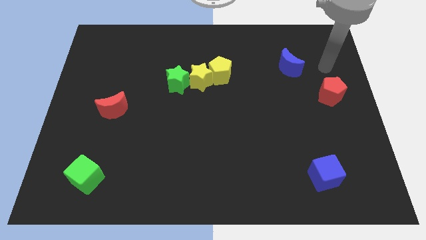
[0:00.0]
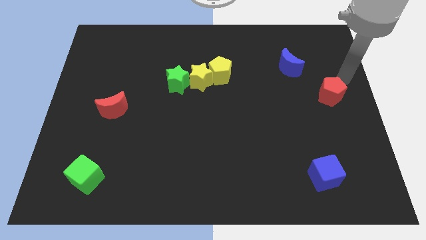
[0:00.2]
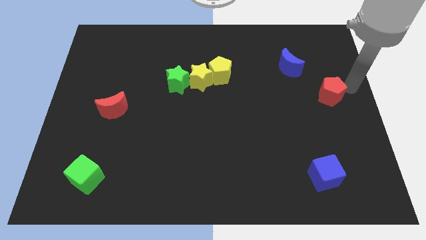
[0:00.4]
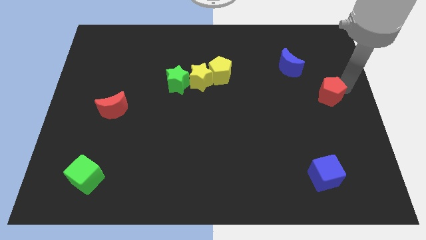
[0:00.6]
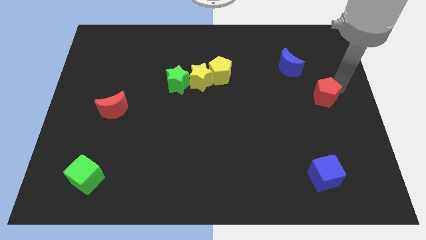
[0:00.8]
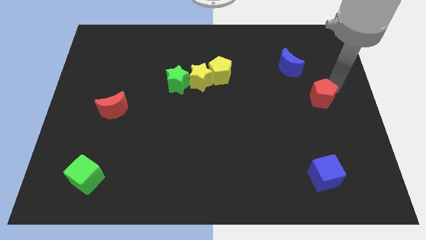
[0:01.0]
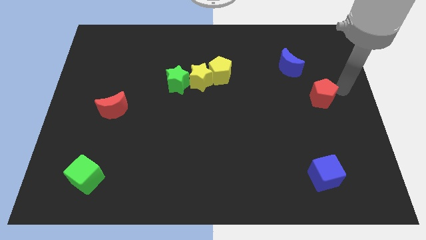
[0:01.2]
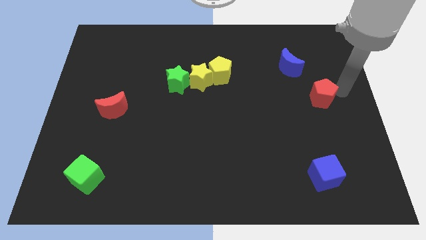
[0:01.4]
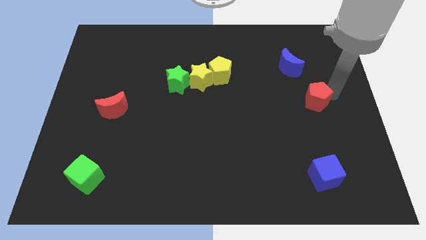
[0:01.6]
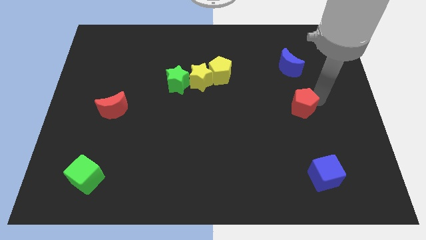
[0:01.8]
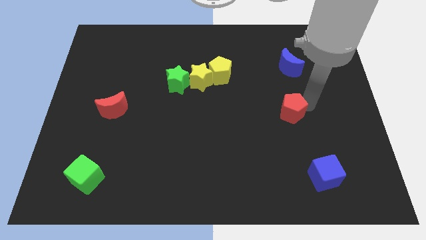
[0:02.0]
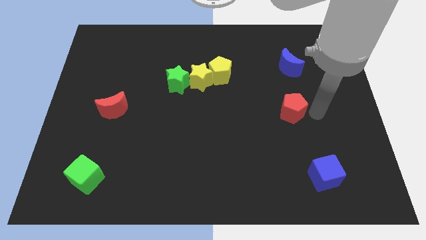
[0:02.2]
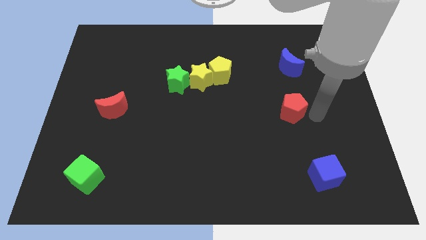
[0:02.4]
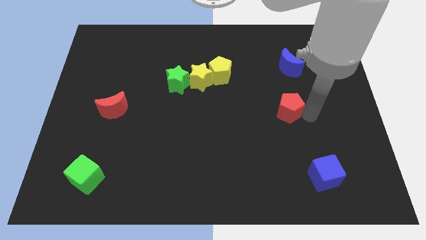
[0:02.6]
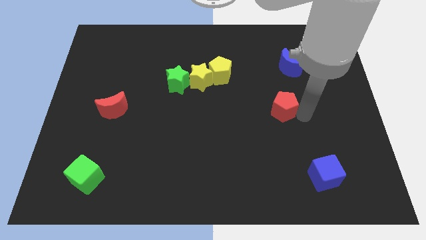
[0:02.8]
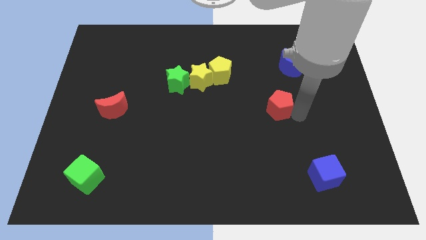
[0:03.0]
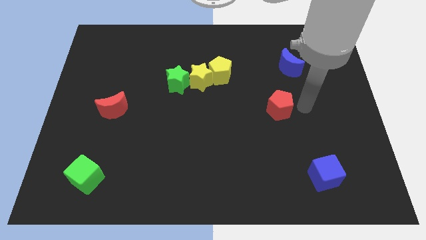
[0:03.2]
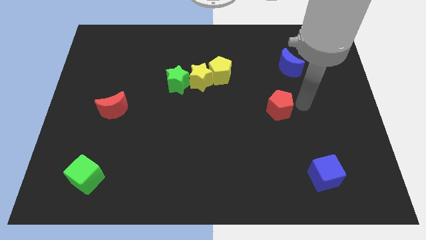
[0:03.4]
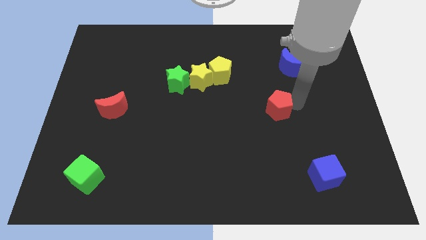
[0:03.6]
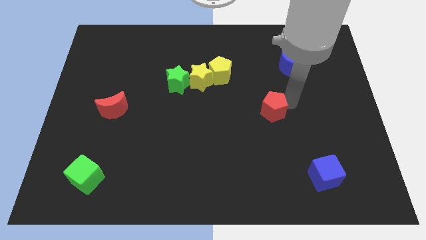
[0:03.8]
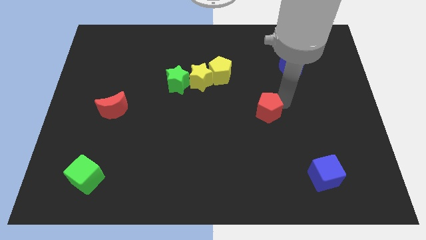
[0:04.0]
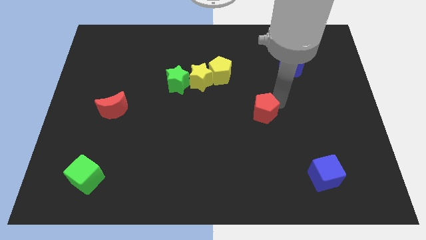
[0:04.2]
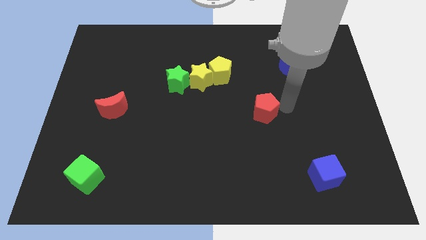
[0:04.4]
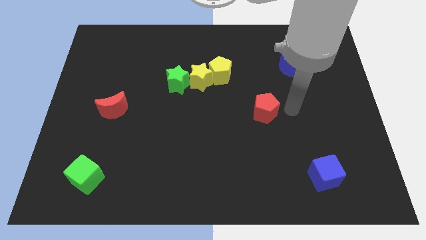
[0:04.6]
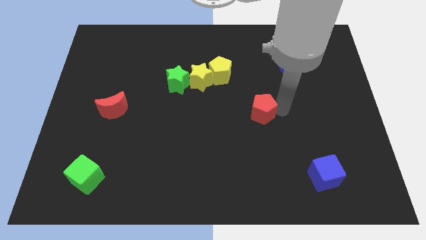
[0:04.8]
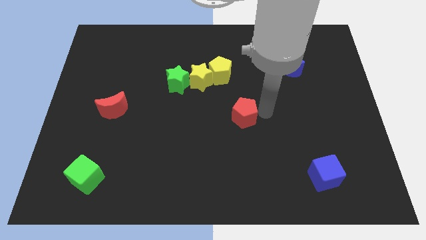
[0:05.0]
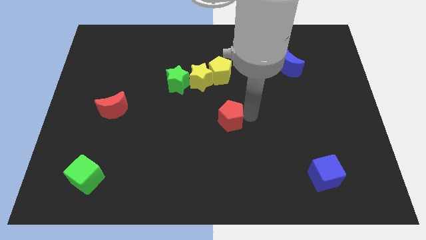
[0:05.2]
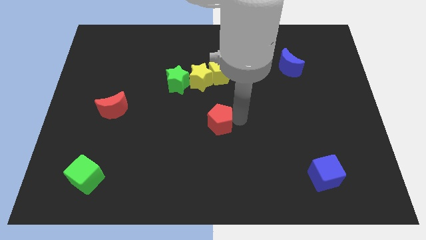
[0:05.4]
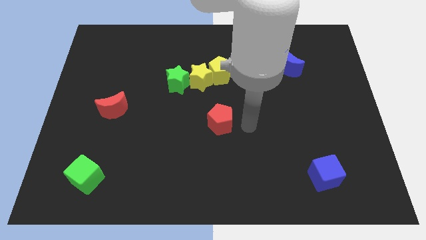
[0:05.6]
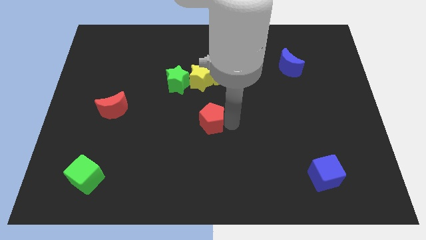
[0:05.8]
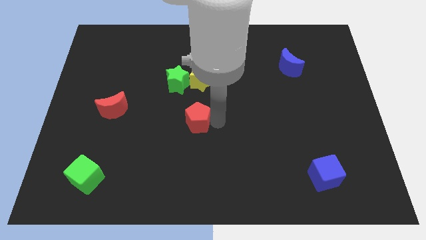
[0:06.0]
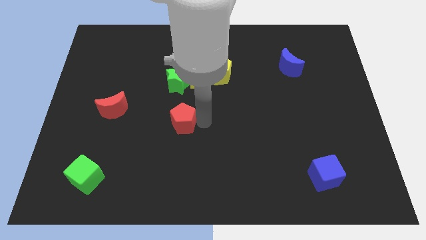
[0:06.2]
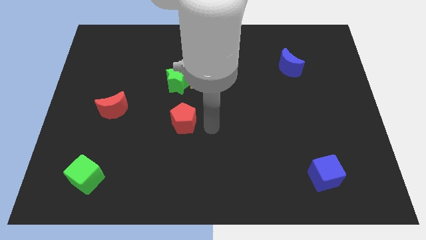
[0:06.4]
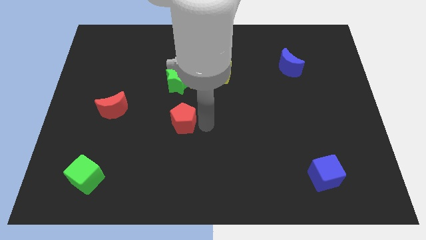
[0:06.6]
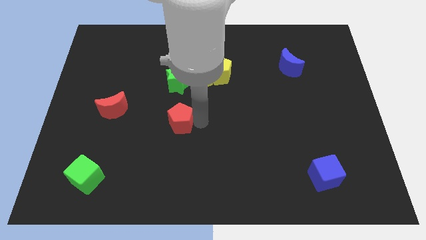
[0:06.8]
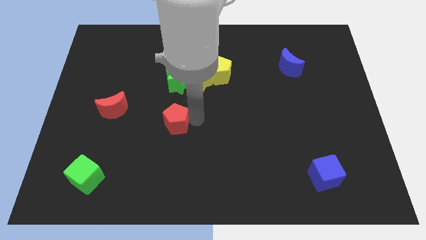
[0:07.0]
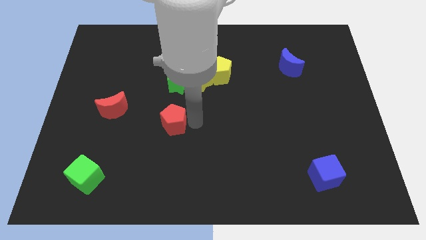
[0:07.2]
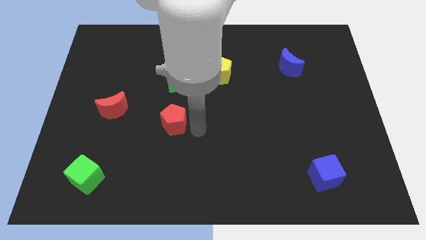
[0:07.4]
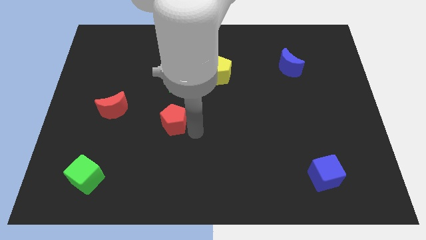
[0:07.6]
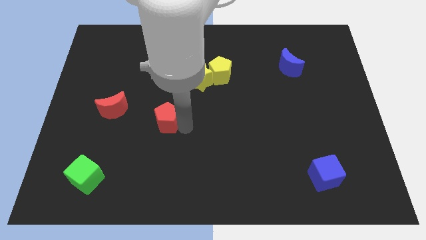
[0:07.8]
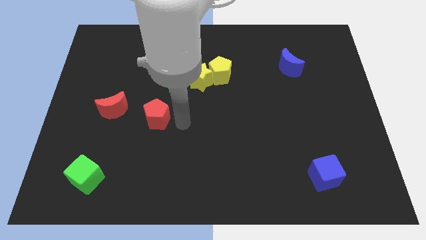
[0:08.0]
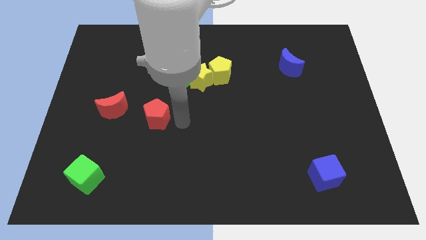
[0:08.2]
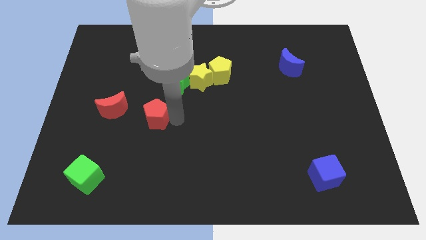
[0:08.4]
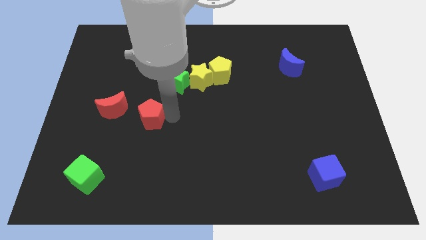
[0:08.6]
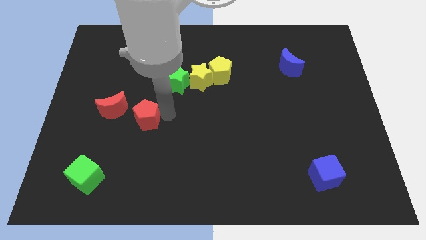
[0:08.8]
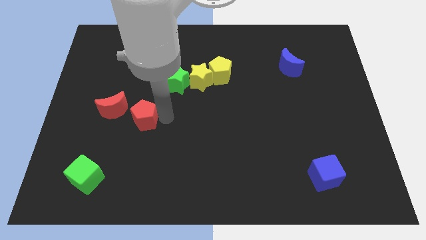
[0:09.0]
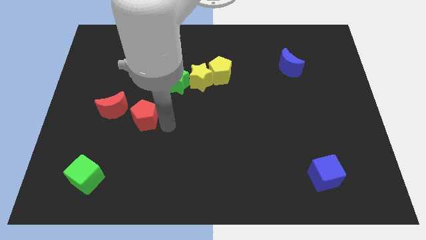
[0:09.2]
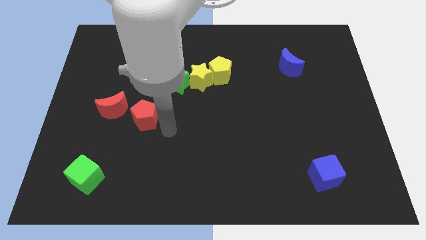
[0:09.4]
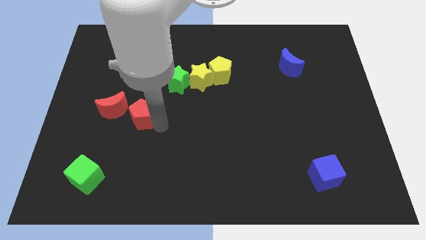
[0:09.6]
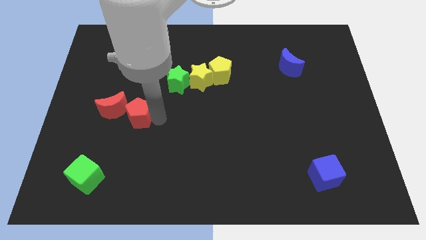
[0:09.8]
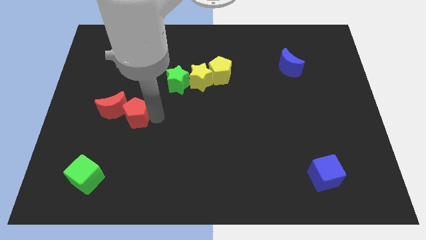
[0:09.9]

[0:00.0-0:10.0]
slide the red pentagon next to the red moon

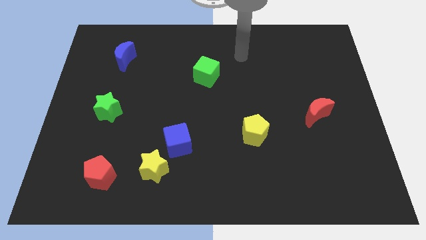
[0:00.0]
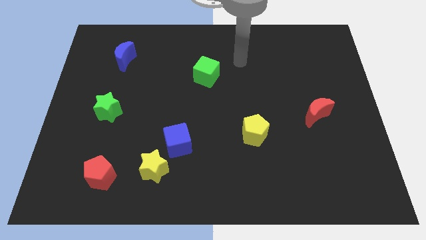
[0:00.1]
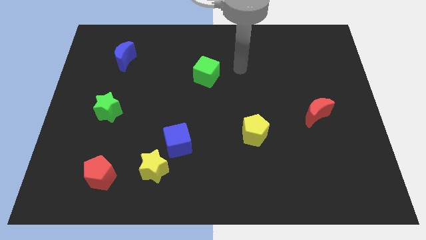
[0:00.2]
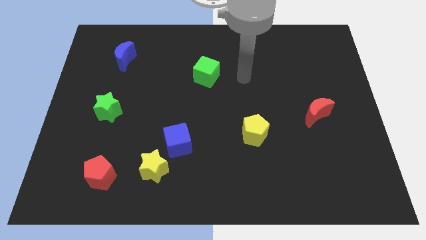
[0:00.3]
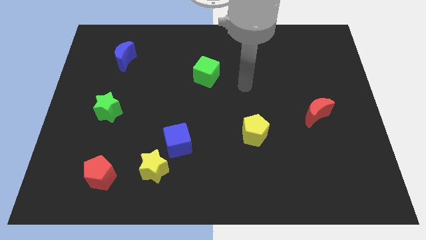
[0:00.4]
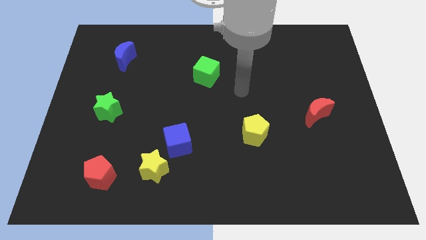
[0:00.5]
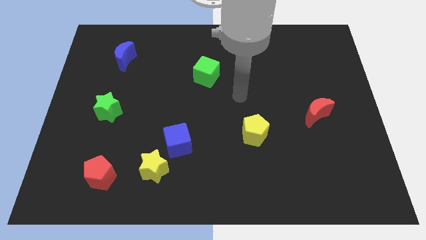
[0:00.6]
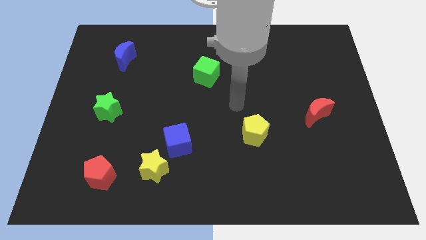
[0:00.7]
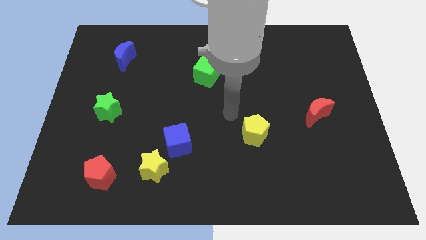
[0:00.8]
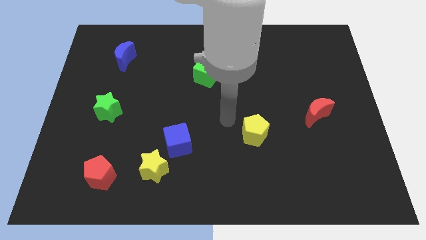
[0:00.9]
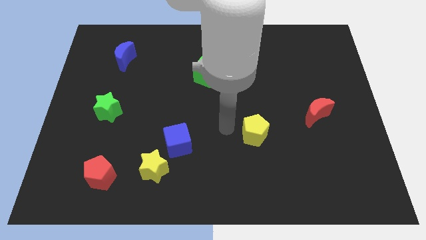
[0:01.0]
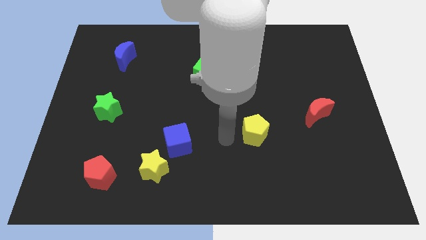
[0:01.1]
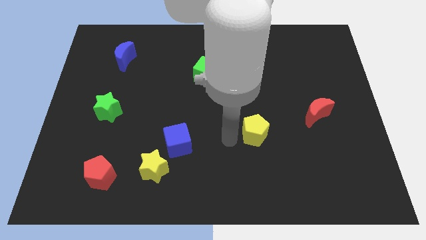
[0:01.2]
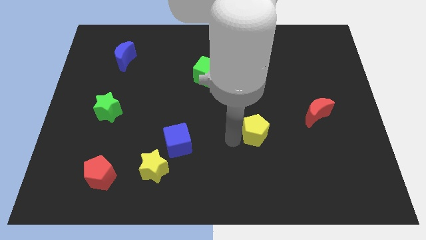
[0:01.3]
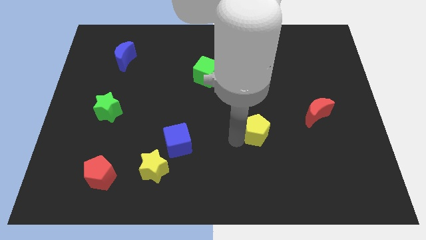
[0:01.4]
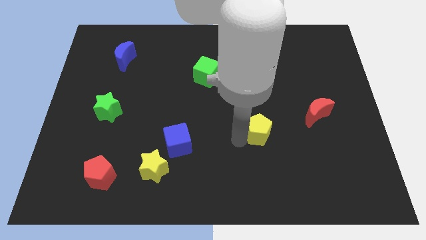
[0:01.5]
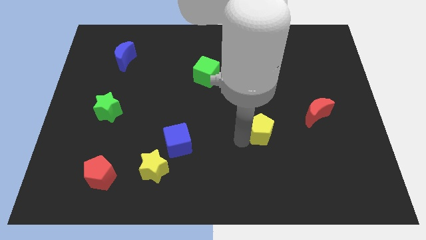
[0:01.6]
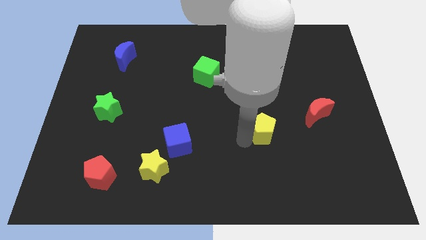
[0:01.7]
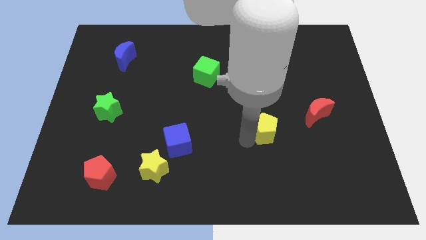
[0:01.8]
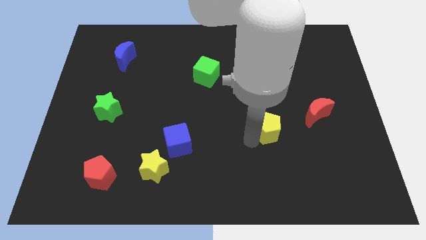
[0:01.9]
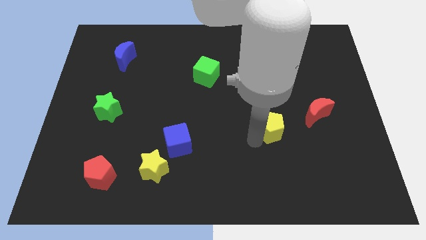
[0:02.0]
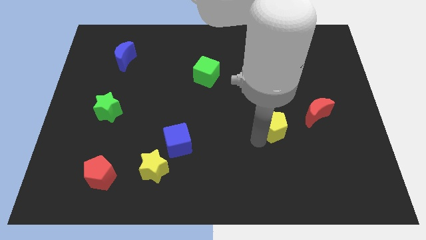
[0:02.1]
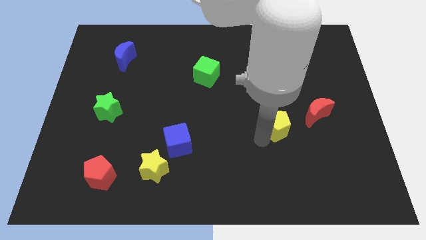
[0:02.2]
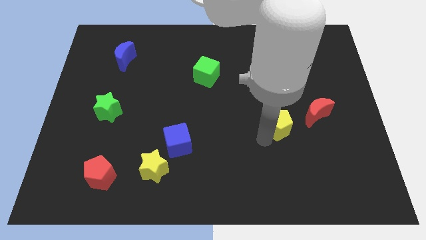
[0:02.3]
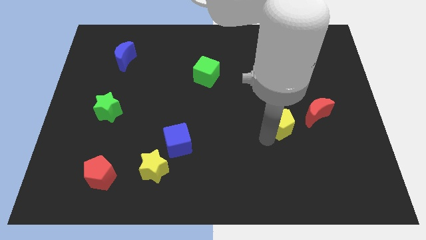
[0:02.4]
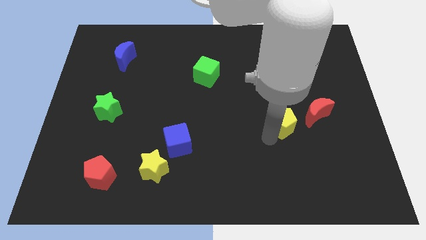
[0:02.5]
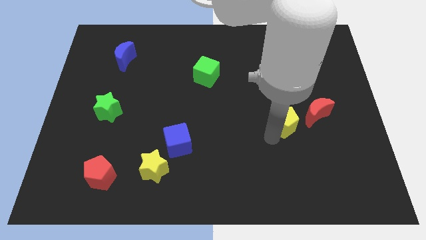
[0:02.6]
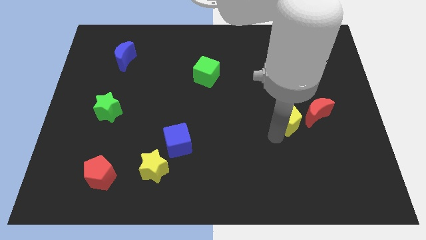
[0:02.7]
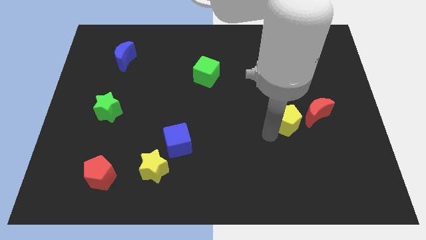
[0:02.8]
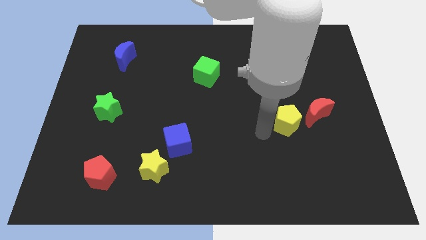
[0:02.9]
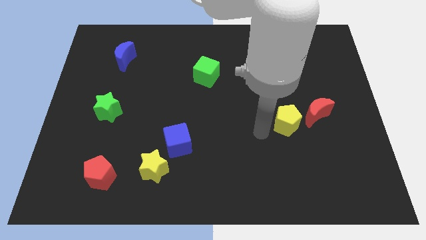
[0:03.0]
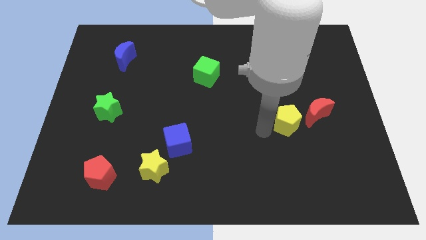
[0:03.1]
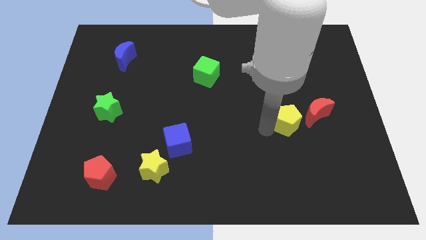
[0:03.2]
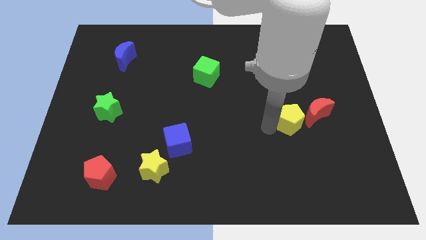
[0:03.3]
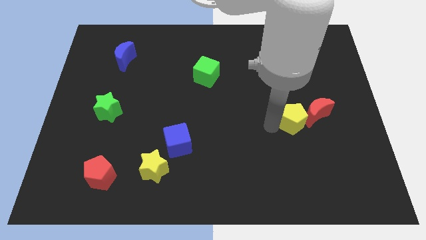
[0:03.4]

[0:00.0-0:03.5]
push the yellow pentagon towards the red moon
